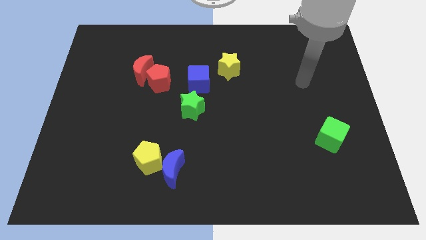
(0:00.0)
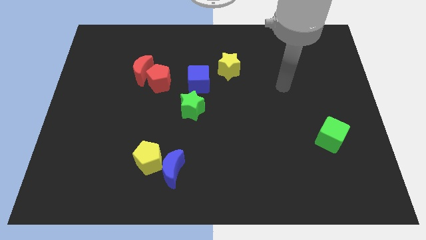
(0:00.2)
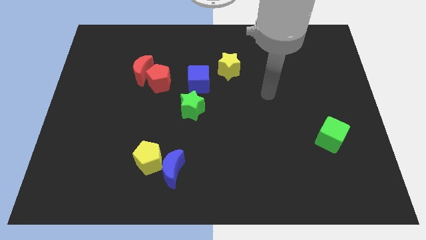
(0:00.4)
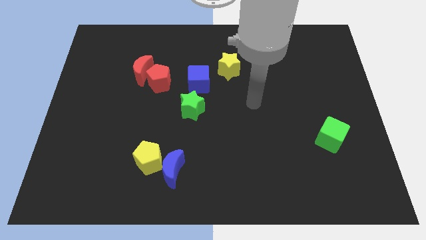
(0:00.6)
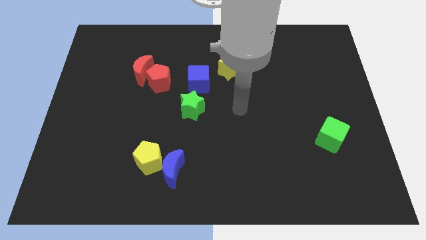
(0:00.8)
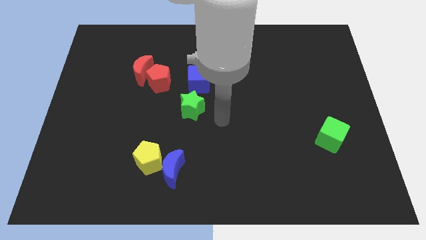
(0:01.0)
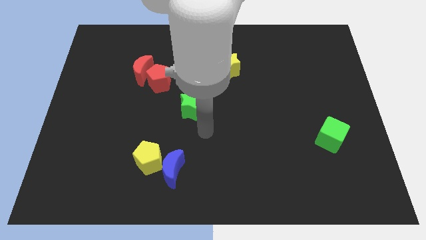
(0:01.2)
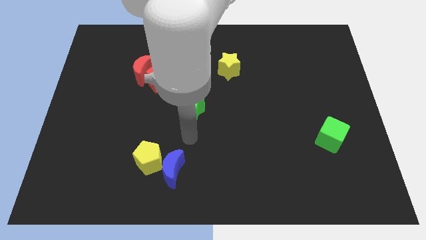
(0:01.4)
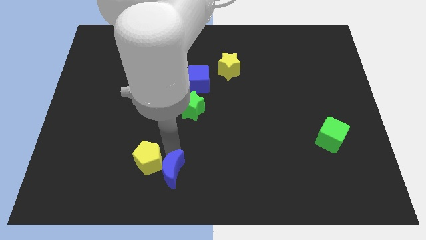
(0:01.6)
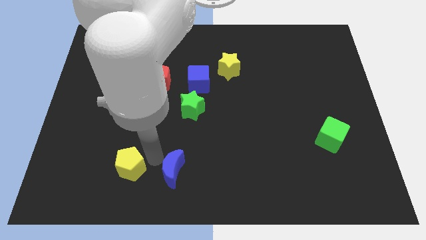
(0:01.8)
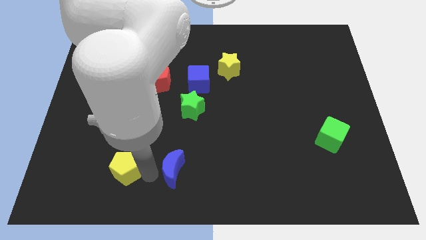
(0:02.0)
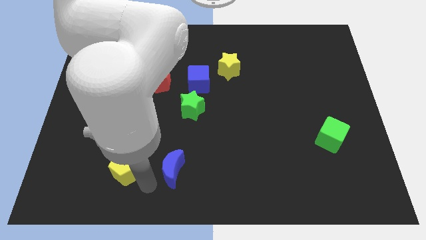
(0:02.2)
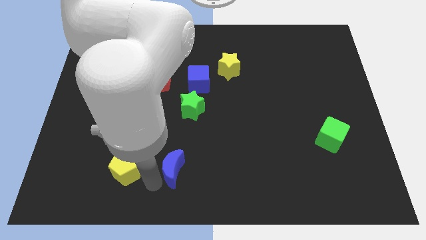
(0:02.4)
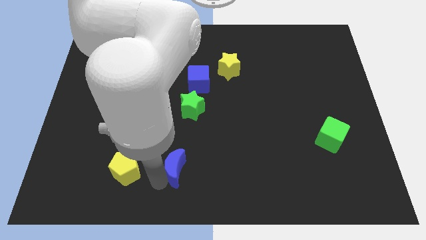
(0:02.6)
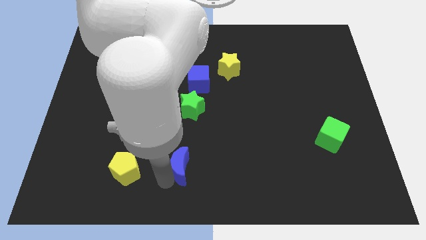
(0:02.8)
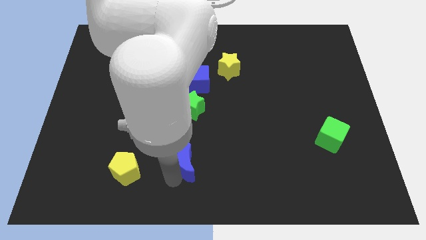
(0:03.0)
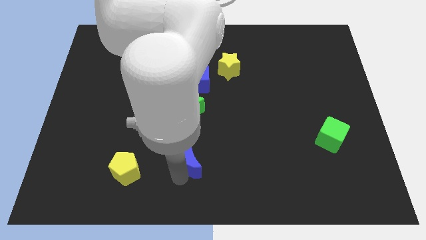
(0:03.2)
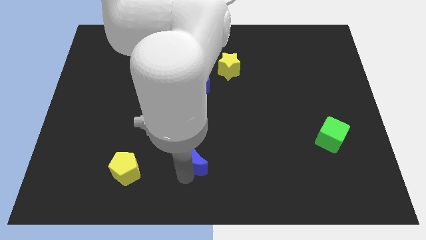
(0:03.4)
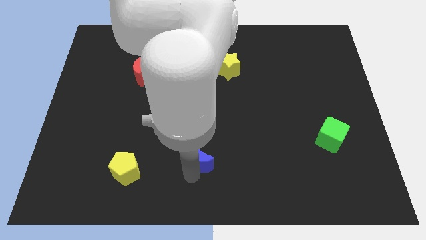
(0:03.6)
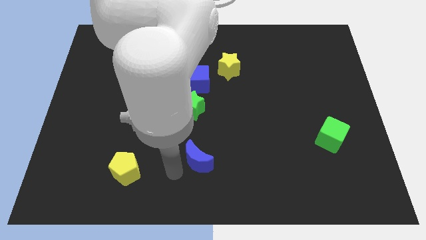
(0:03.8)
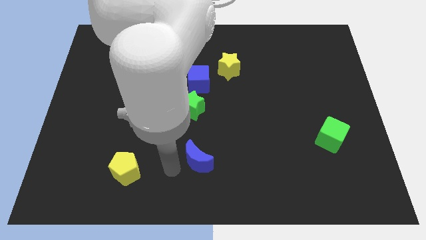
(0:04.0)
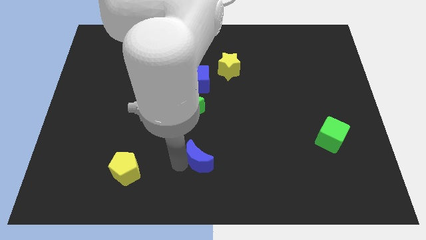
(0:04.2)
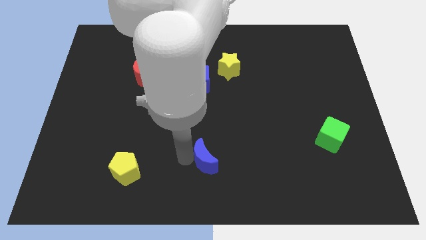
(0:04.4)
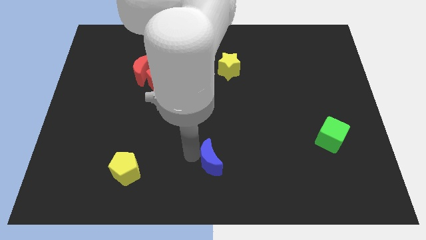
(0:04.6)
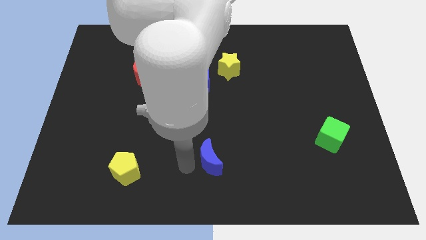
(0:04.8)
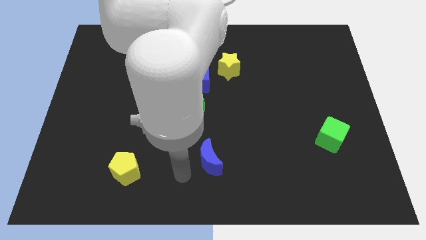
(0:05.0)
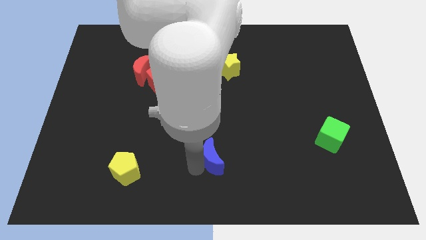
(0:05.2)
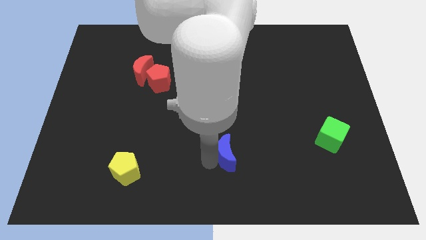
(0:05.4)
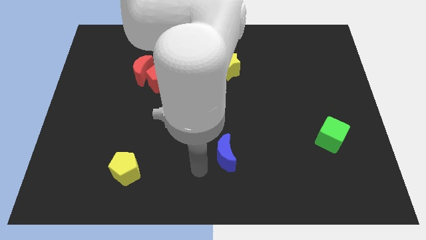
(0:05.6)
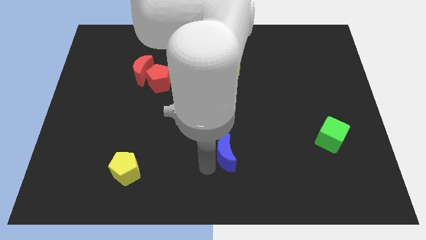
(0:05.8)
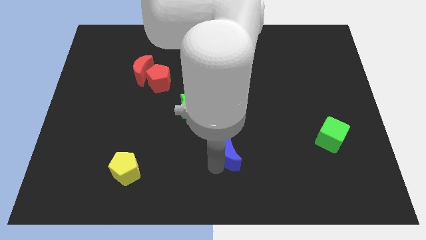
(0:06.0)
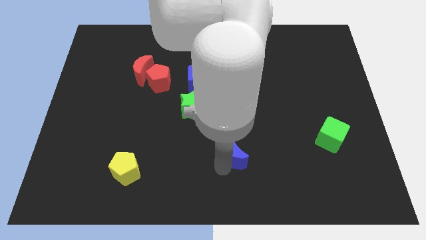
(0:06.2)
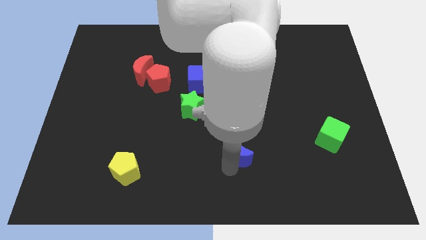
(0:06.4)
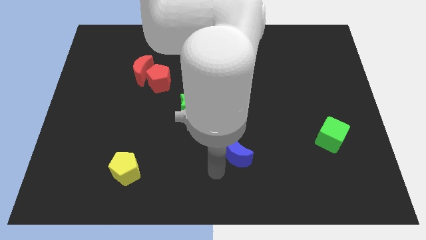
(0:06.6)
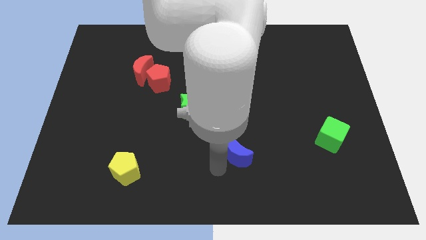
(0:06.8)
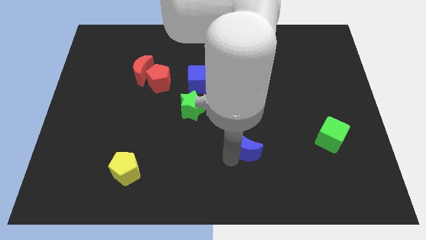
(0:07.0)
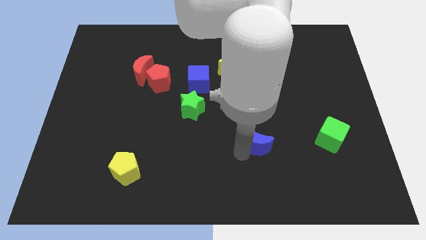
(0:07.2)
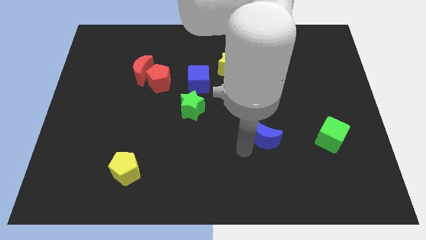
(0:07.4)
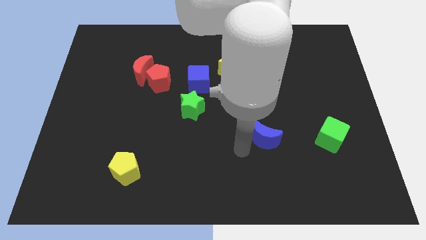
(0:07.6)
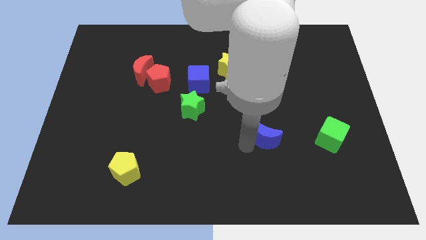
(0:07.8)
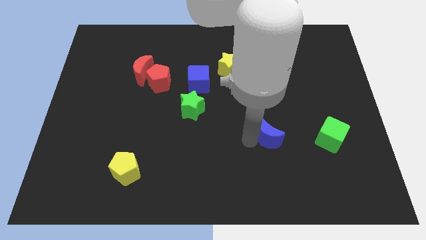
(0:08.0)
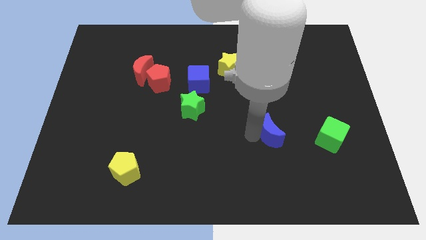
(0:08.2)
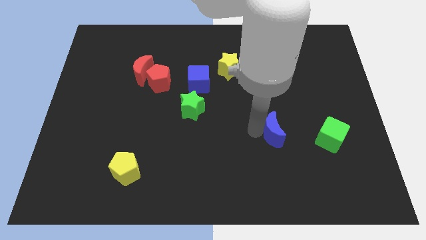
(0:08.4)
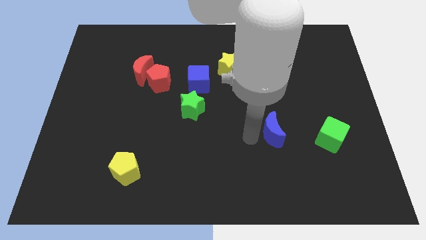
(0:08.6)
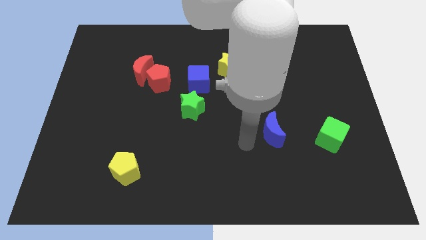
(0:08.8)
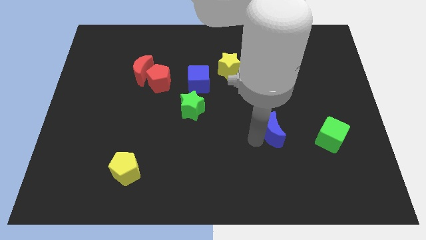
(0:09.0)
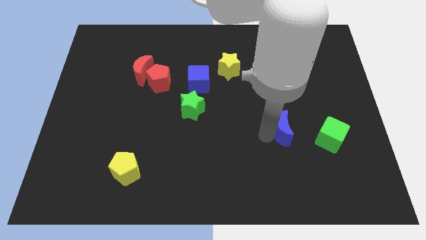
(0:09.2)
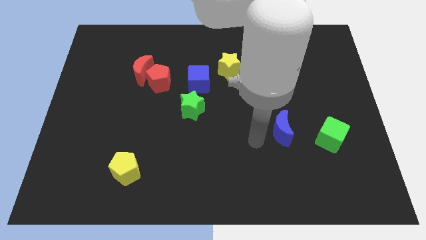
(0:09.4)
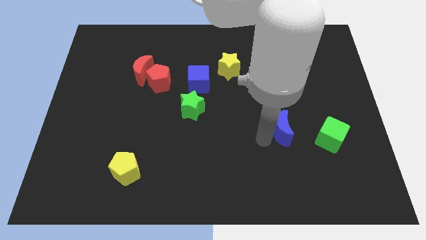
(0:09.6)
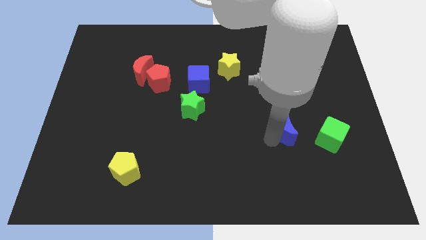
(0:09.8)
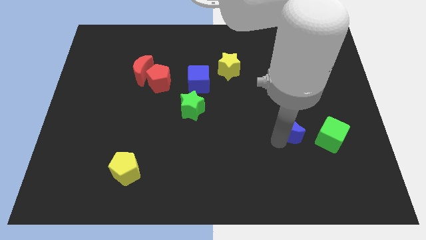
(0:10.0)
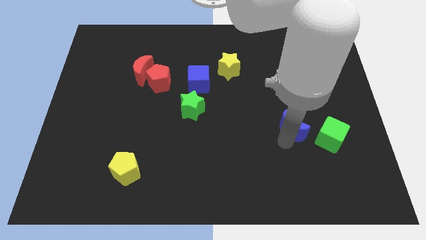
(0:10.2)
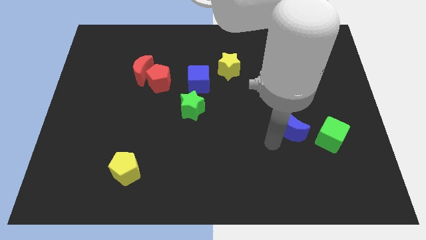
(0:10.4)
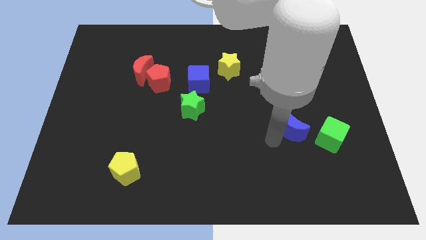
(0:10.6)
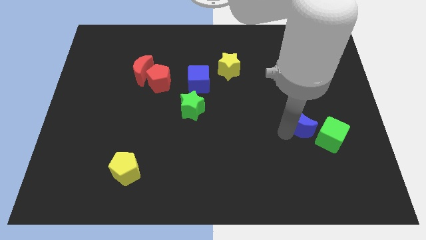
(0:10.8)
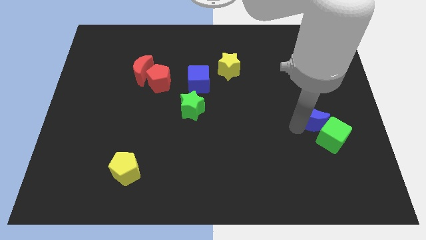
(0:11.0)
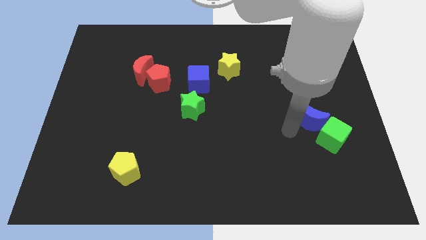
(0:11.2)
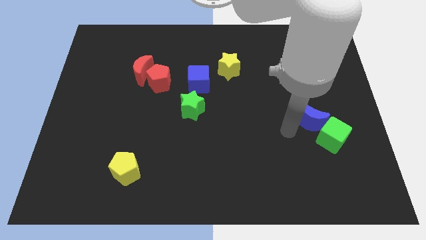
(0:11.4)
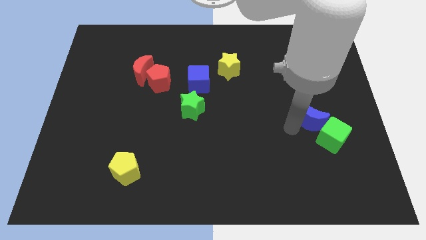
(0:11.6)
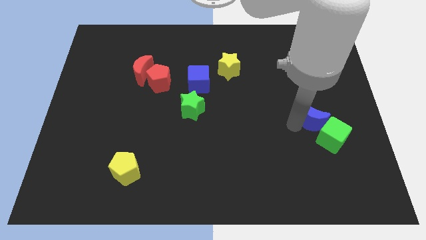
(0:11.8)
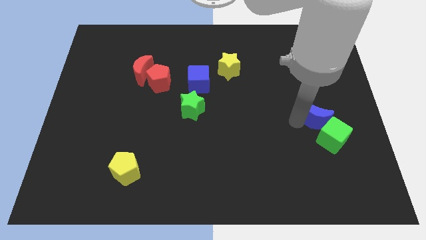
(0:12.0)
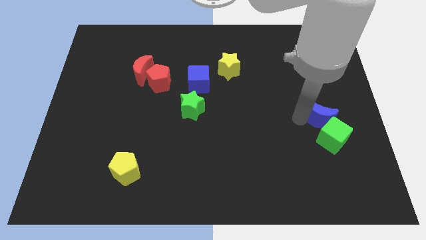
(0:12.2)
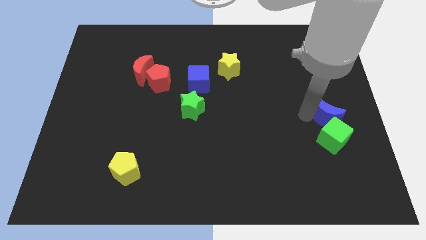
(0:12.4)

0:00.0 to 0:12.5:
slide the blue moon to the right side

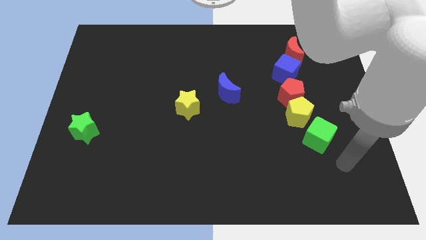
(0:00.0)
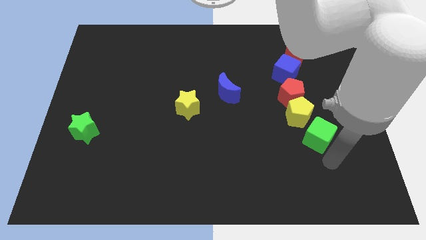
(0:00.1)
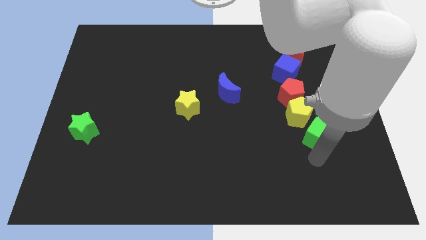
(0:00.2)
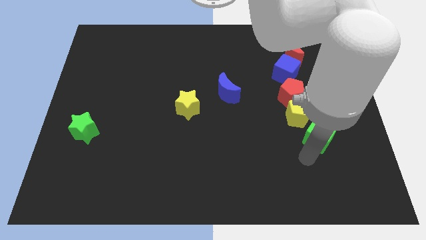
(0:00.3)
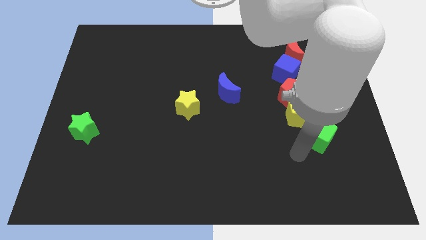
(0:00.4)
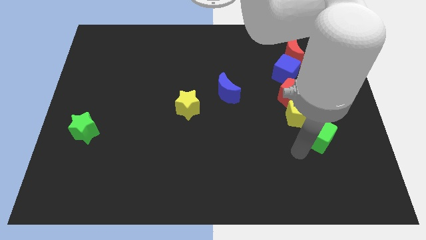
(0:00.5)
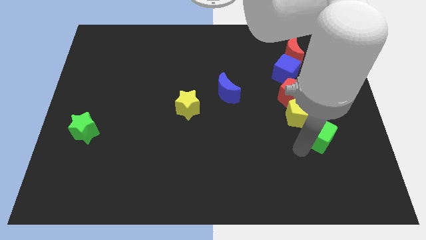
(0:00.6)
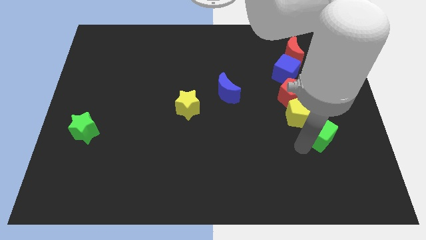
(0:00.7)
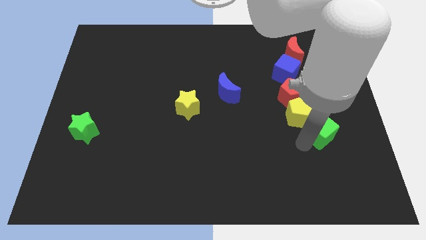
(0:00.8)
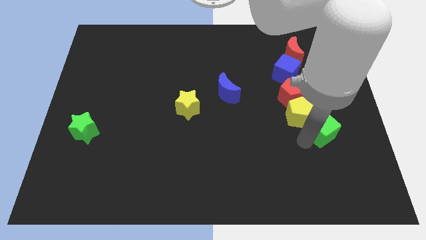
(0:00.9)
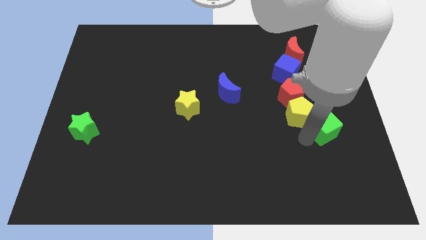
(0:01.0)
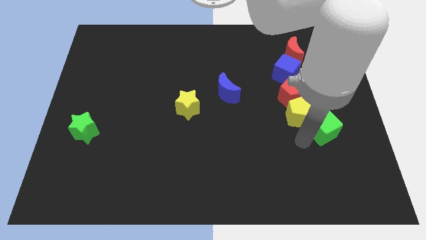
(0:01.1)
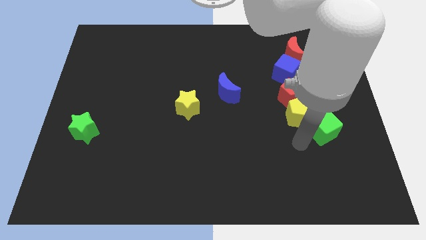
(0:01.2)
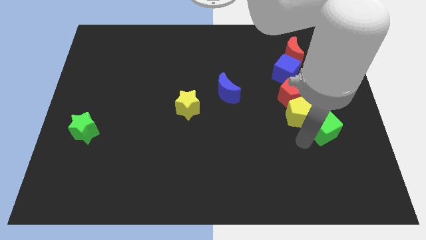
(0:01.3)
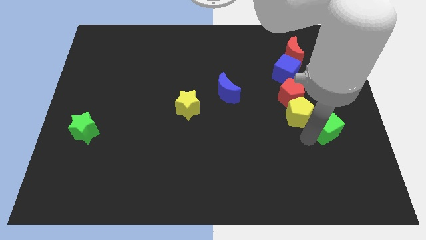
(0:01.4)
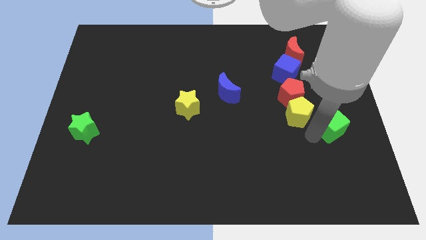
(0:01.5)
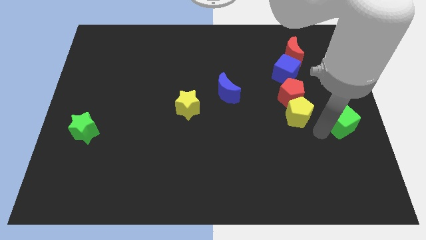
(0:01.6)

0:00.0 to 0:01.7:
move the green cube to the right side
